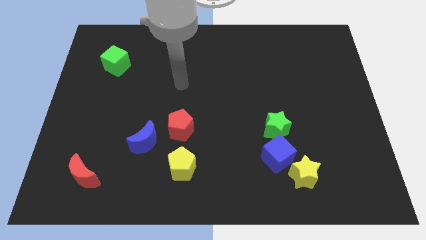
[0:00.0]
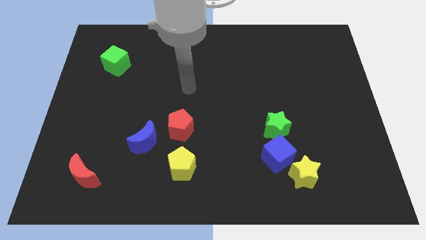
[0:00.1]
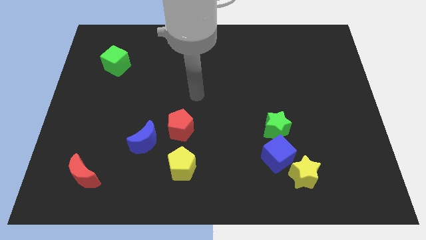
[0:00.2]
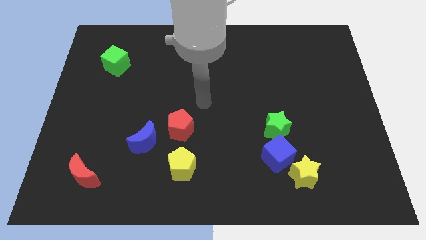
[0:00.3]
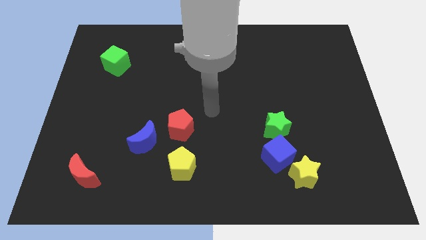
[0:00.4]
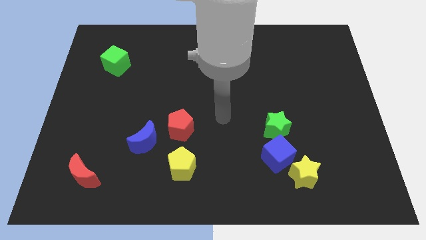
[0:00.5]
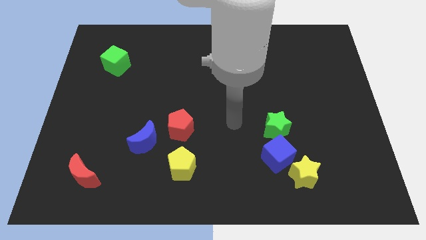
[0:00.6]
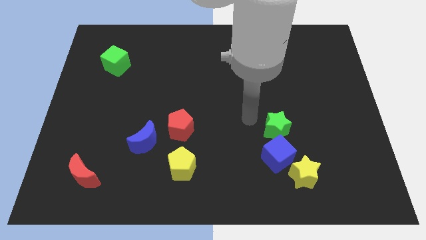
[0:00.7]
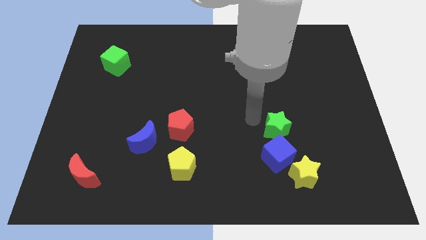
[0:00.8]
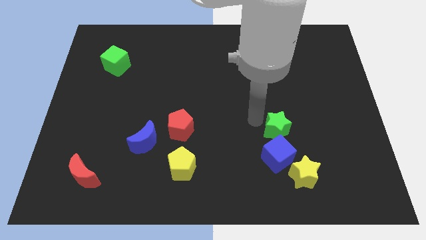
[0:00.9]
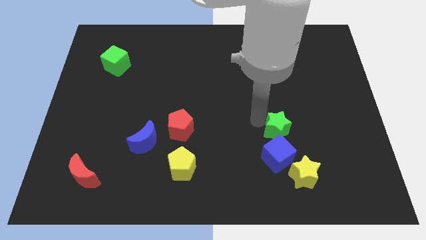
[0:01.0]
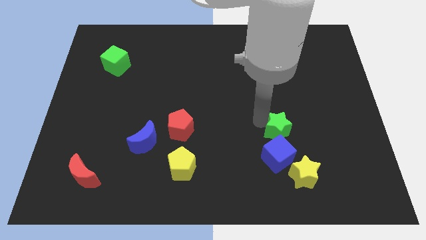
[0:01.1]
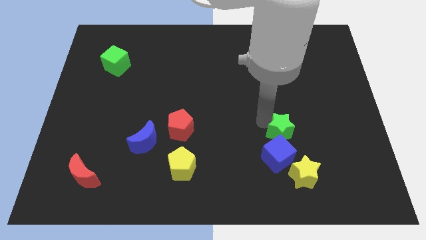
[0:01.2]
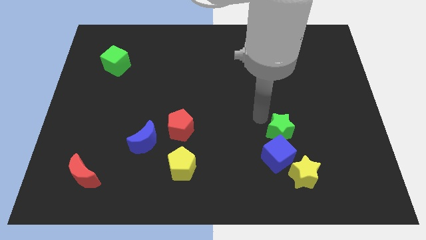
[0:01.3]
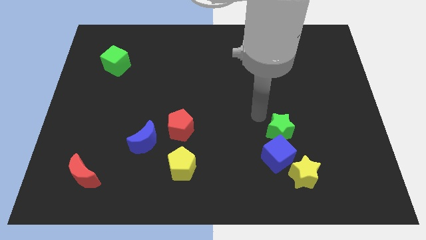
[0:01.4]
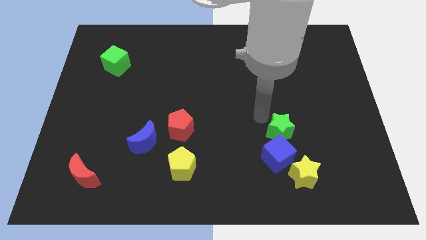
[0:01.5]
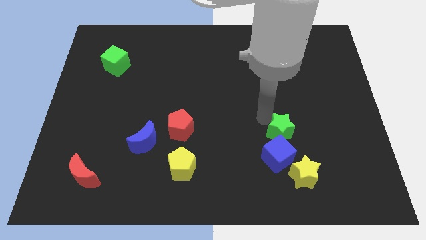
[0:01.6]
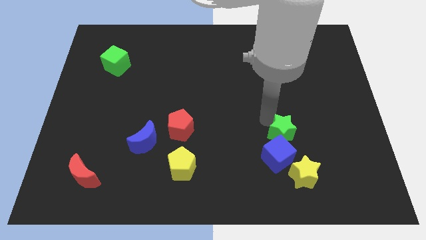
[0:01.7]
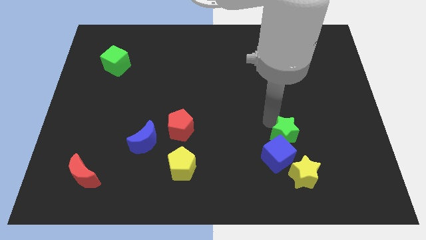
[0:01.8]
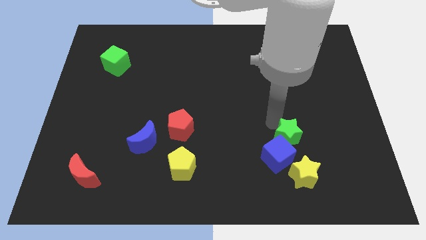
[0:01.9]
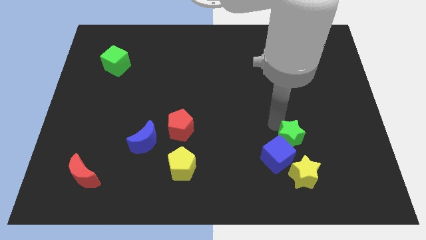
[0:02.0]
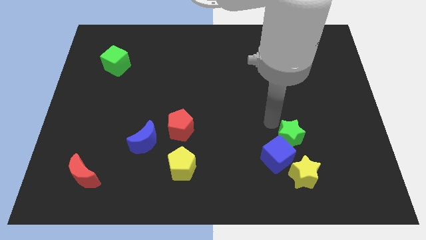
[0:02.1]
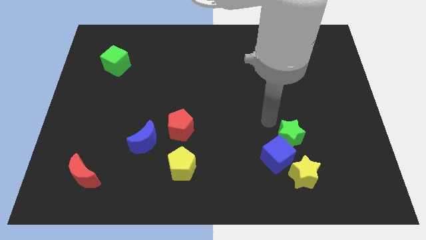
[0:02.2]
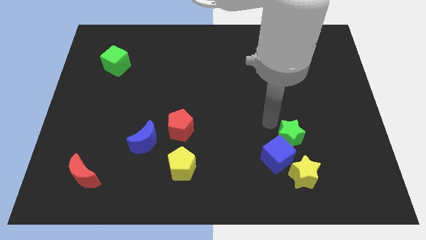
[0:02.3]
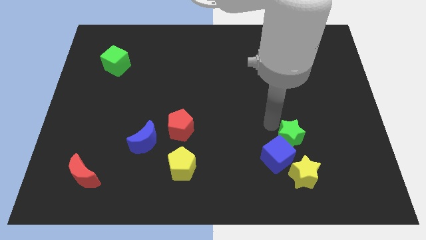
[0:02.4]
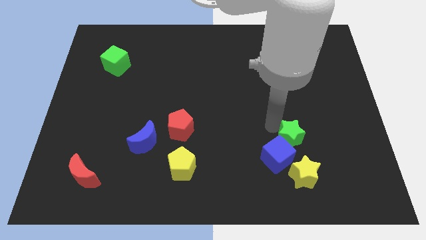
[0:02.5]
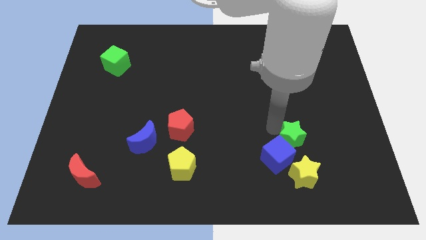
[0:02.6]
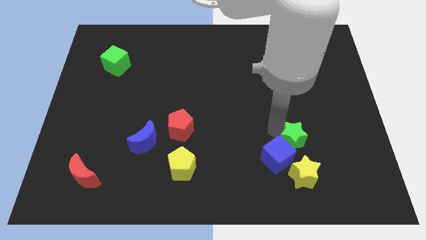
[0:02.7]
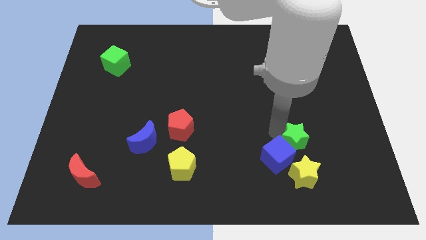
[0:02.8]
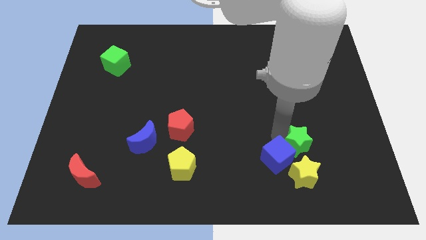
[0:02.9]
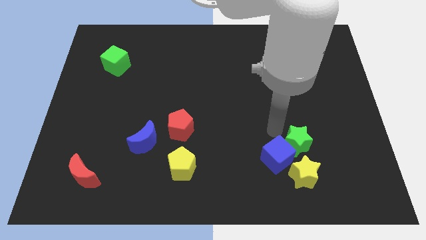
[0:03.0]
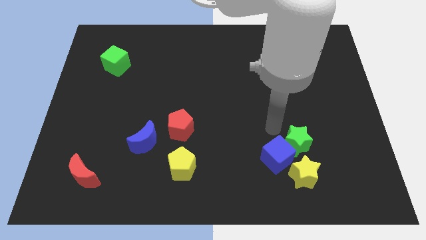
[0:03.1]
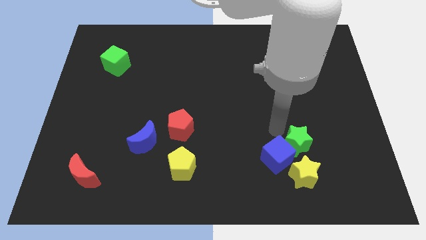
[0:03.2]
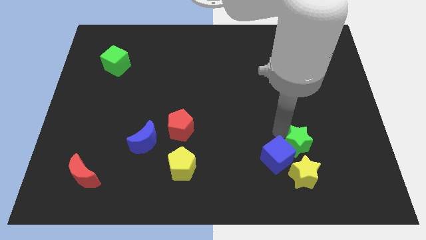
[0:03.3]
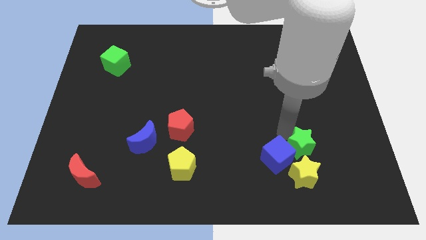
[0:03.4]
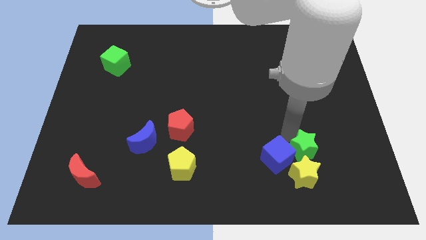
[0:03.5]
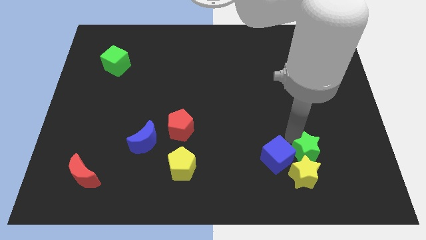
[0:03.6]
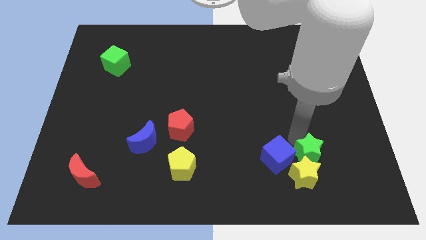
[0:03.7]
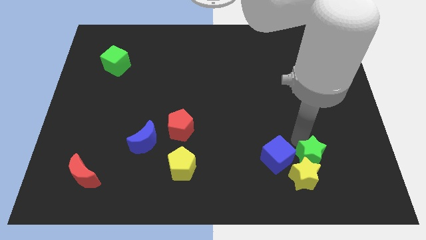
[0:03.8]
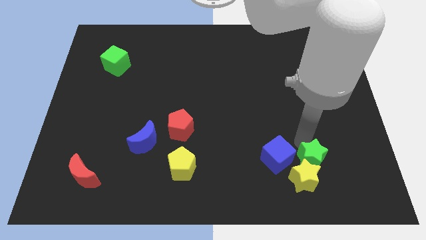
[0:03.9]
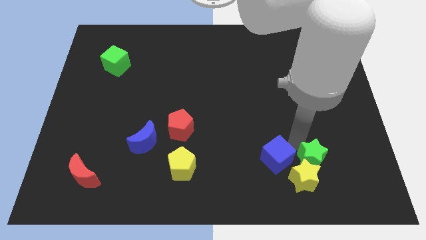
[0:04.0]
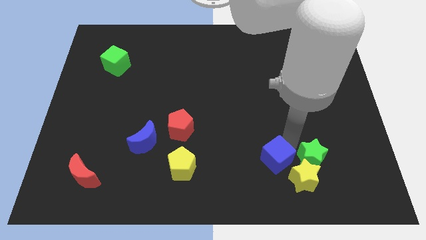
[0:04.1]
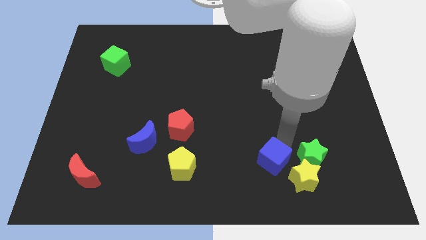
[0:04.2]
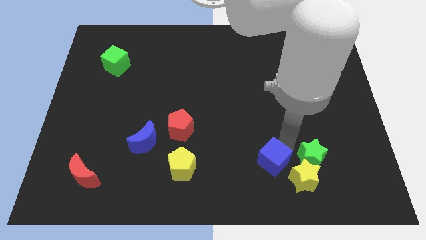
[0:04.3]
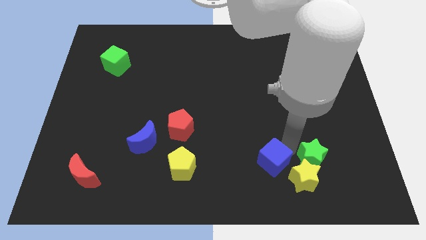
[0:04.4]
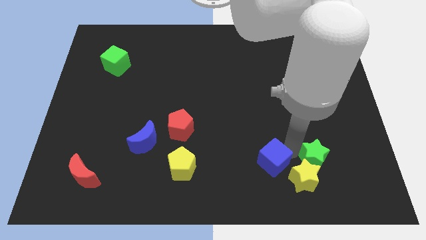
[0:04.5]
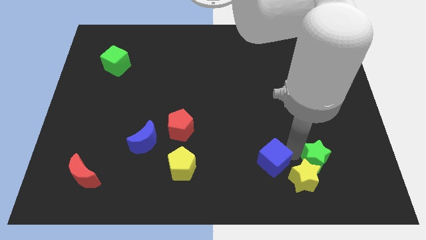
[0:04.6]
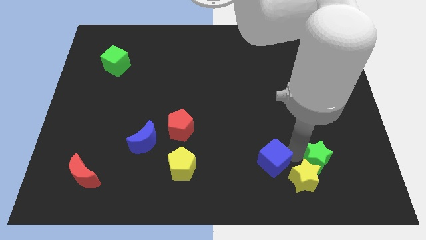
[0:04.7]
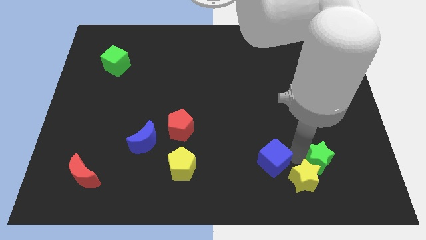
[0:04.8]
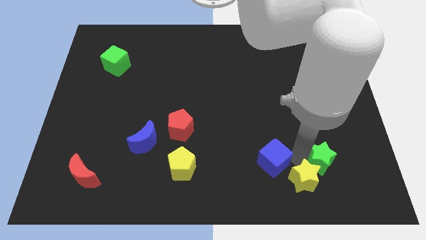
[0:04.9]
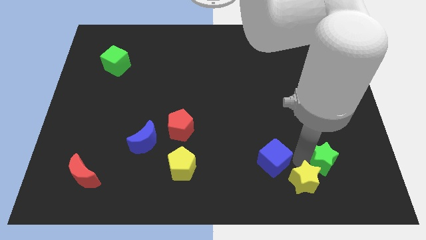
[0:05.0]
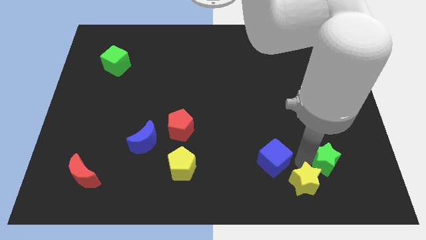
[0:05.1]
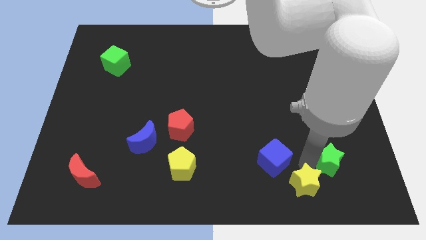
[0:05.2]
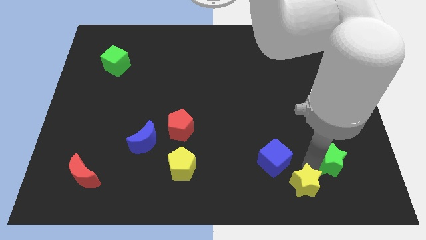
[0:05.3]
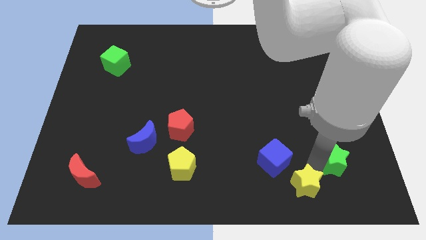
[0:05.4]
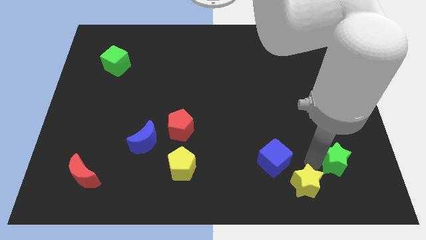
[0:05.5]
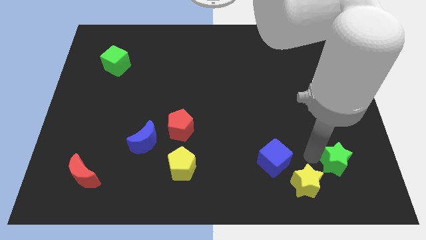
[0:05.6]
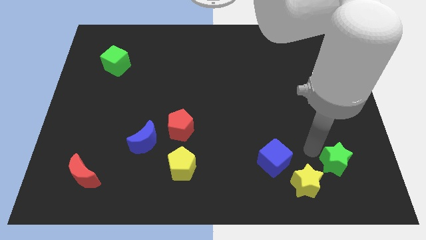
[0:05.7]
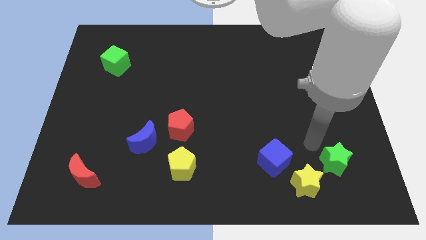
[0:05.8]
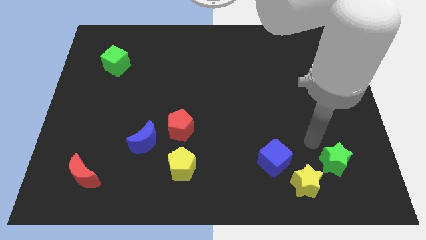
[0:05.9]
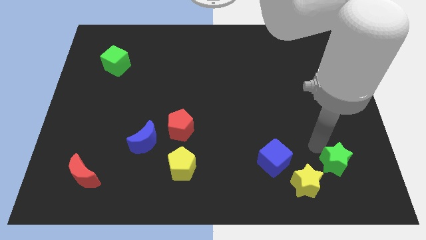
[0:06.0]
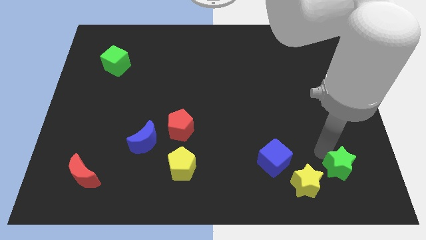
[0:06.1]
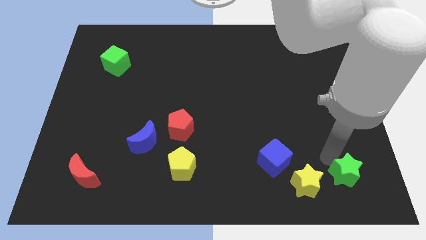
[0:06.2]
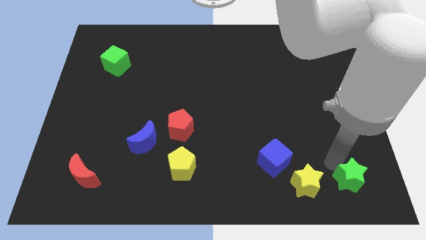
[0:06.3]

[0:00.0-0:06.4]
move the green star to the lower right corner

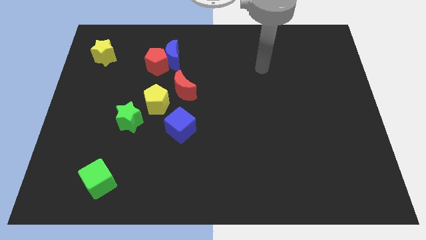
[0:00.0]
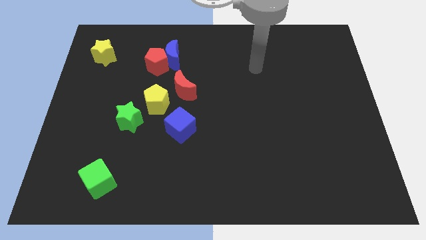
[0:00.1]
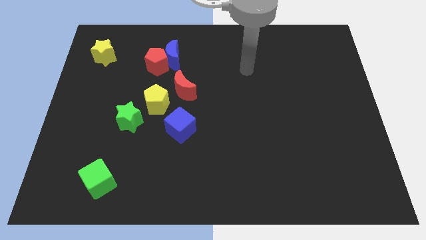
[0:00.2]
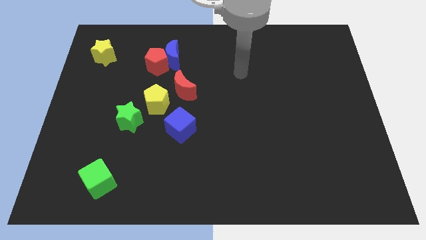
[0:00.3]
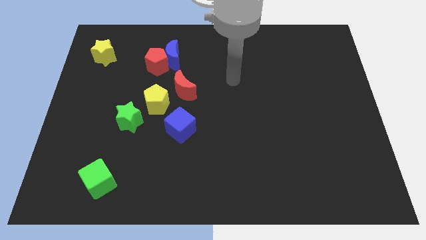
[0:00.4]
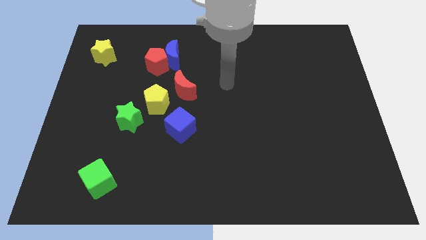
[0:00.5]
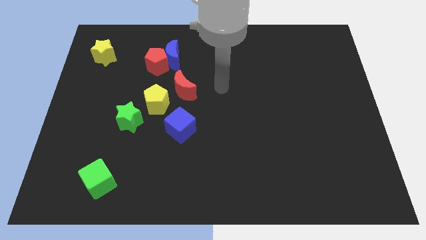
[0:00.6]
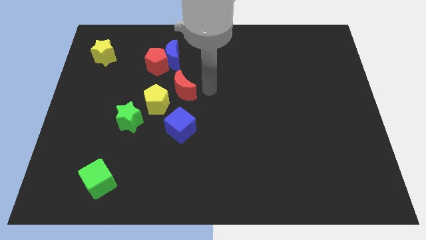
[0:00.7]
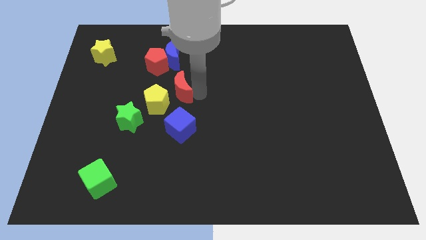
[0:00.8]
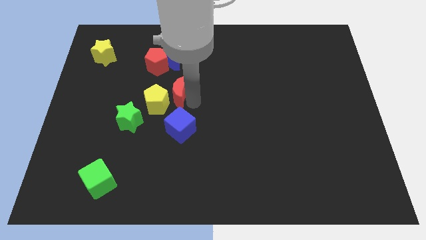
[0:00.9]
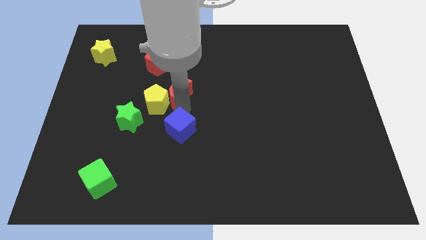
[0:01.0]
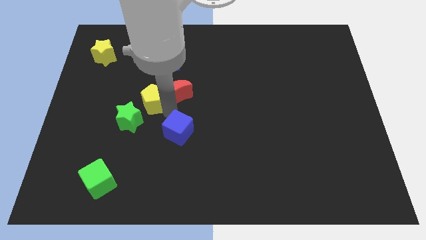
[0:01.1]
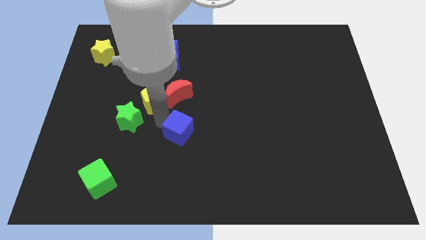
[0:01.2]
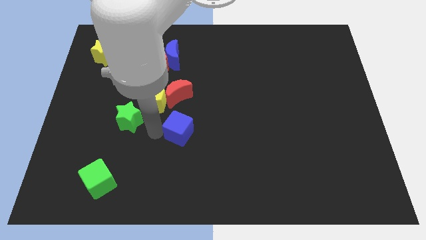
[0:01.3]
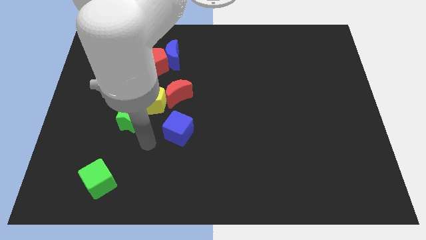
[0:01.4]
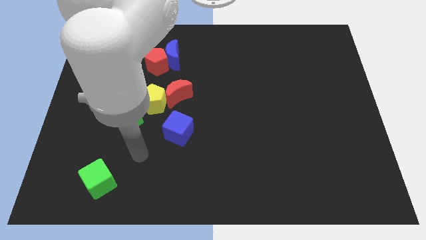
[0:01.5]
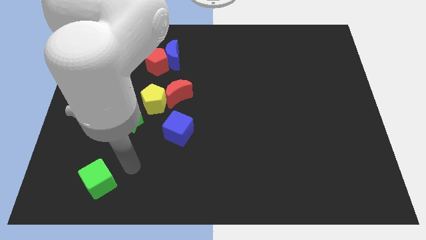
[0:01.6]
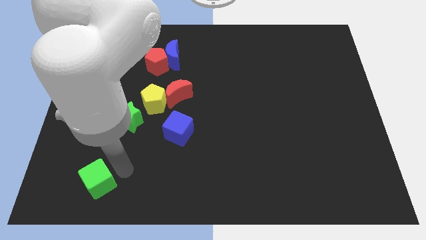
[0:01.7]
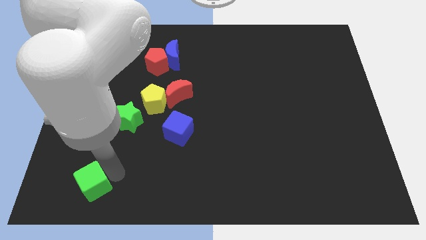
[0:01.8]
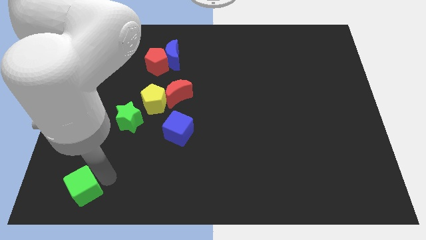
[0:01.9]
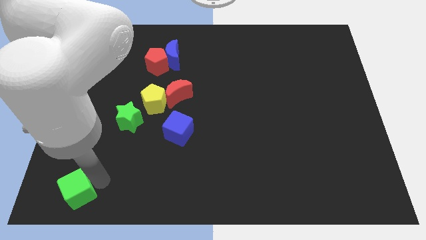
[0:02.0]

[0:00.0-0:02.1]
put the green cube to the bottom left
